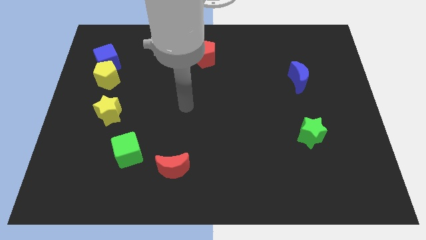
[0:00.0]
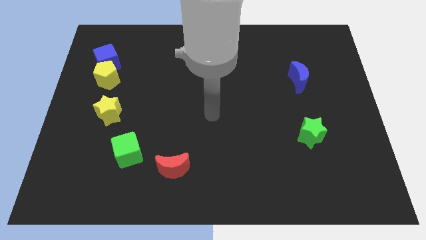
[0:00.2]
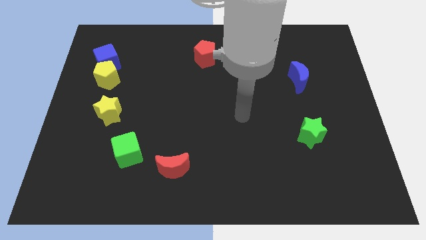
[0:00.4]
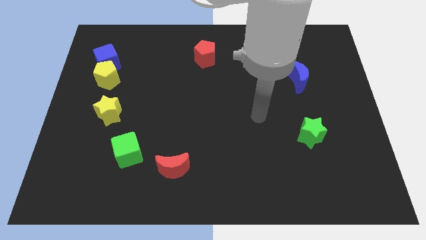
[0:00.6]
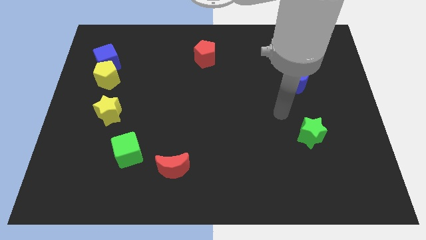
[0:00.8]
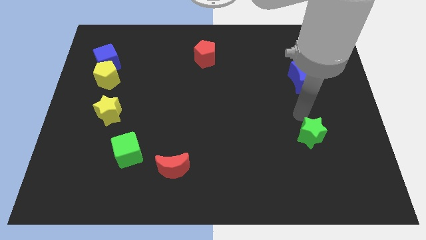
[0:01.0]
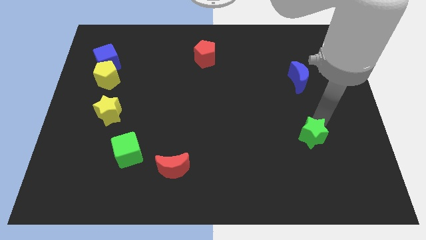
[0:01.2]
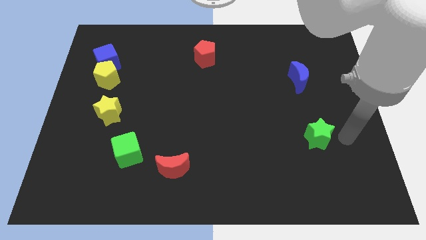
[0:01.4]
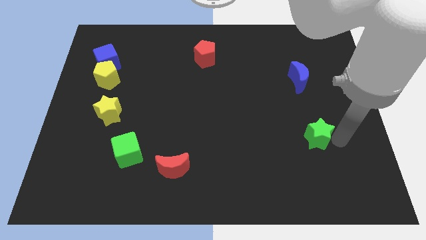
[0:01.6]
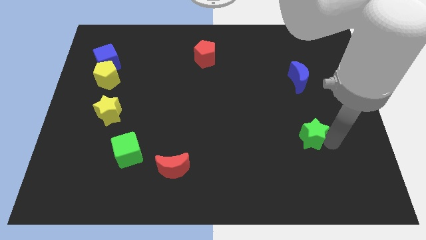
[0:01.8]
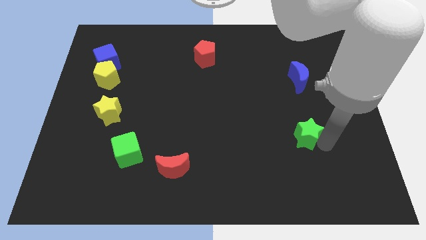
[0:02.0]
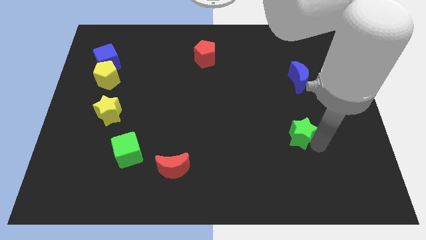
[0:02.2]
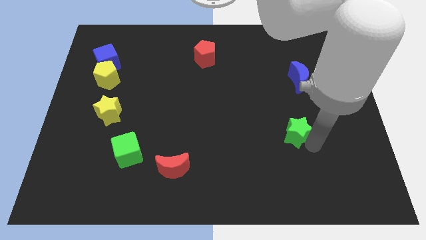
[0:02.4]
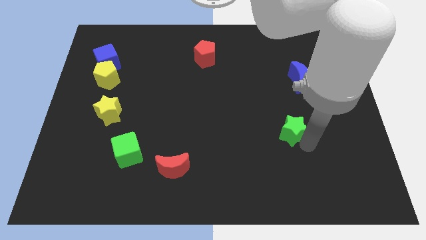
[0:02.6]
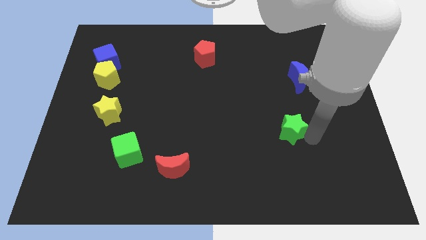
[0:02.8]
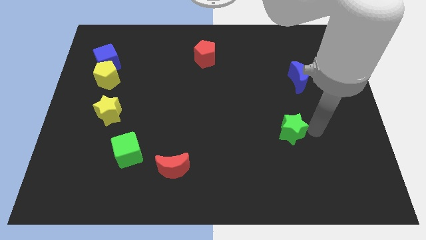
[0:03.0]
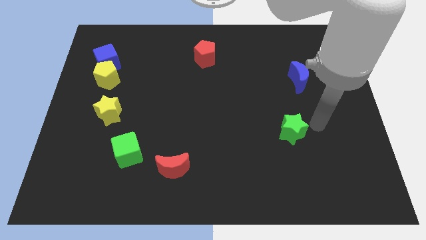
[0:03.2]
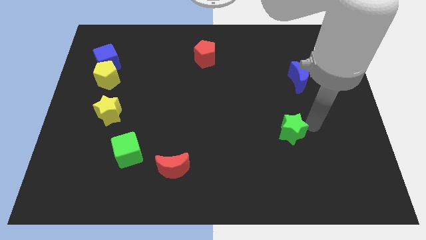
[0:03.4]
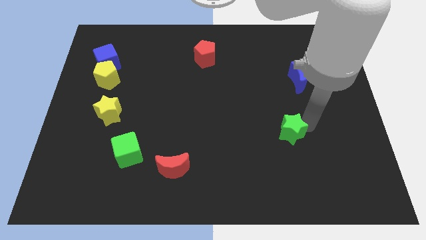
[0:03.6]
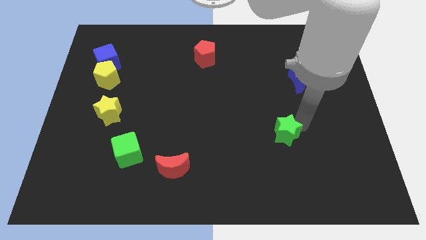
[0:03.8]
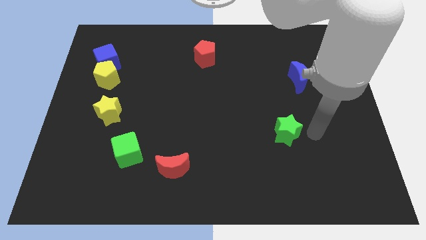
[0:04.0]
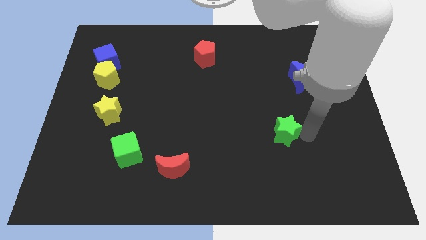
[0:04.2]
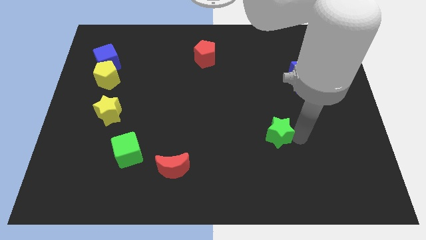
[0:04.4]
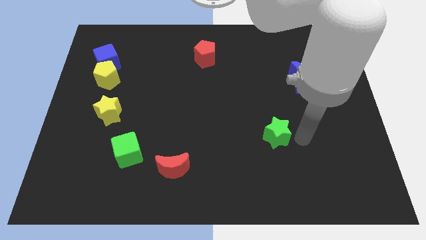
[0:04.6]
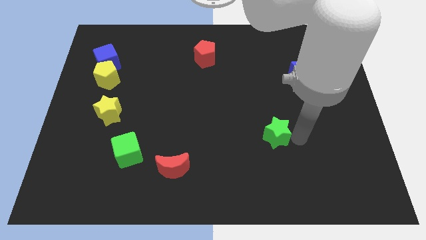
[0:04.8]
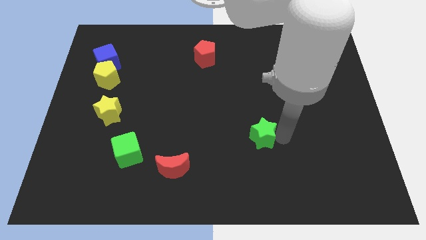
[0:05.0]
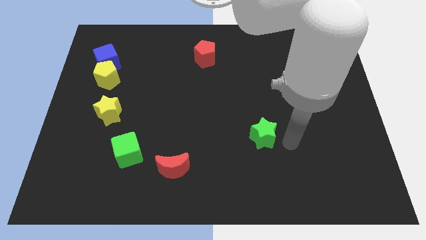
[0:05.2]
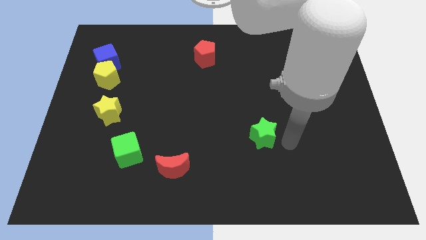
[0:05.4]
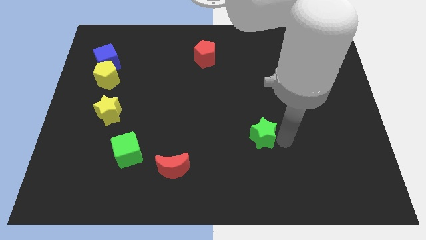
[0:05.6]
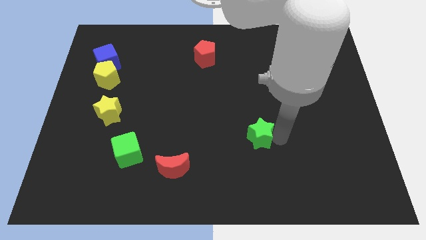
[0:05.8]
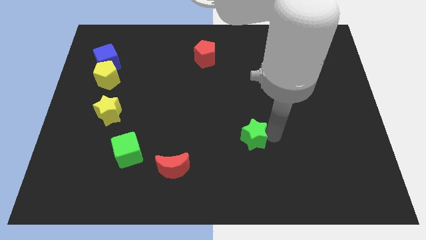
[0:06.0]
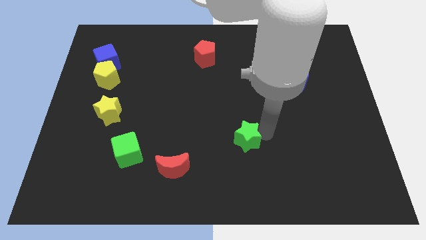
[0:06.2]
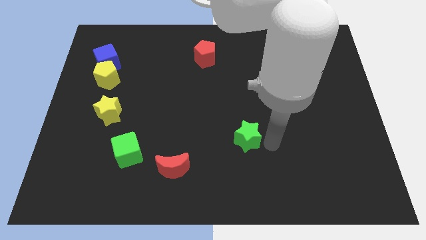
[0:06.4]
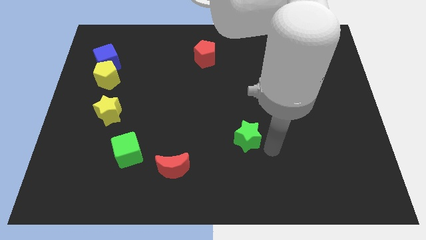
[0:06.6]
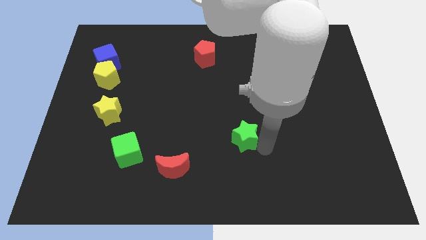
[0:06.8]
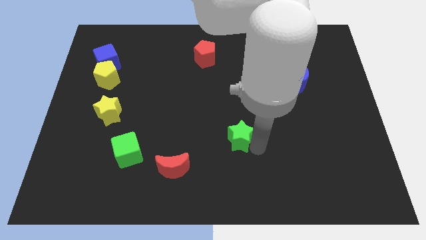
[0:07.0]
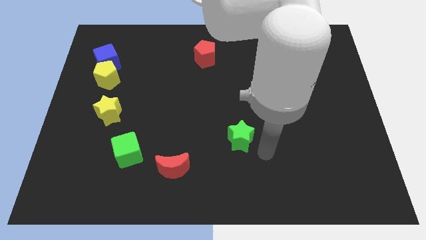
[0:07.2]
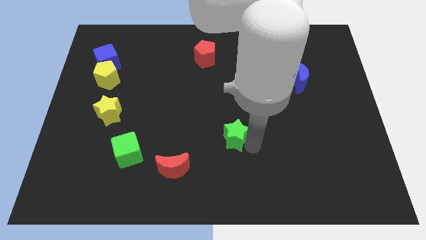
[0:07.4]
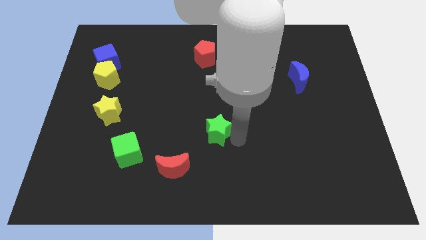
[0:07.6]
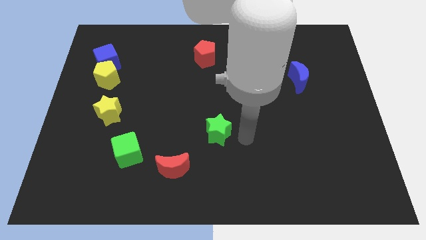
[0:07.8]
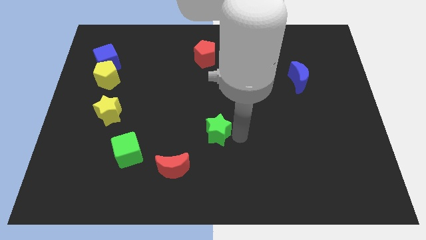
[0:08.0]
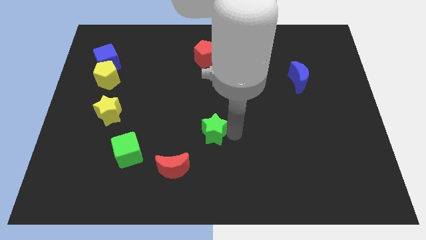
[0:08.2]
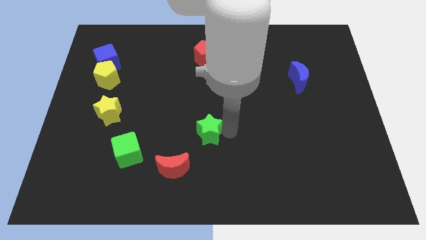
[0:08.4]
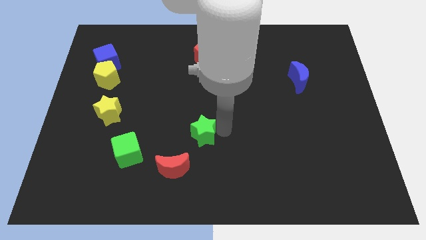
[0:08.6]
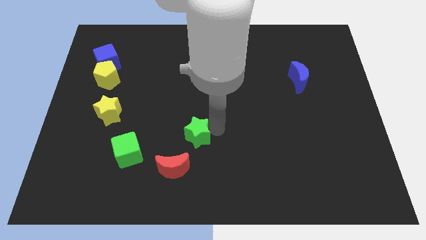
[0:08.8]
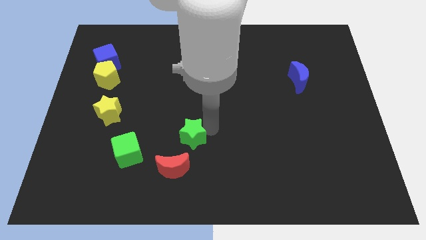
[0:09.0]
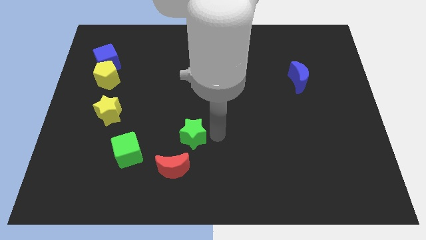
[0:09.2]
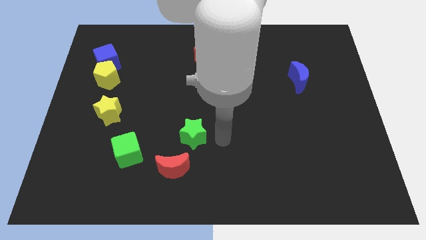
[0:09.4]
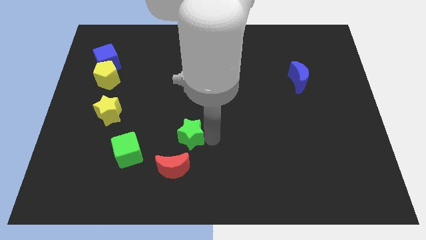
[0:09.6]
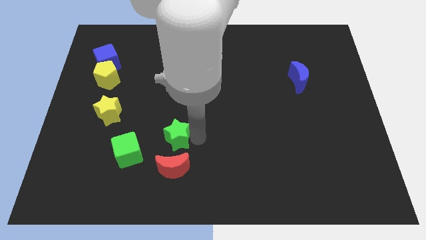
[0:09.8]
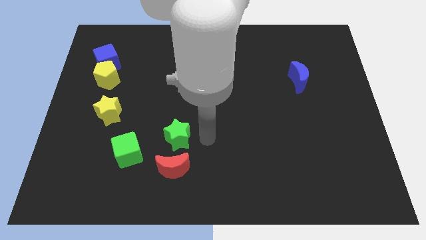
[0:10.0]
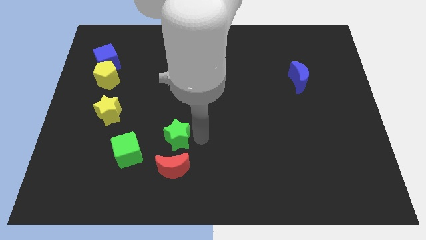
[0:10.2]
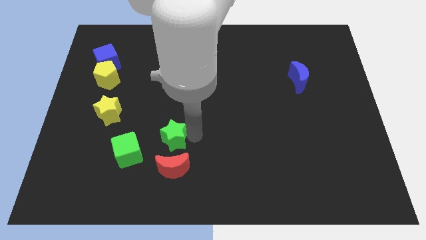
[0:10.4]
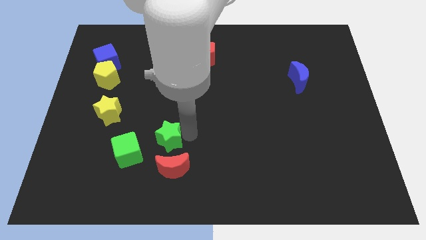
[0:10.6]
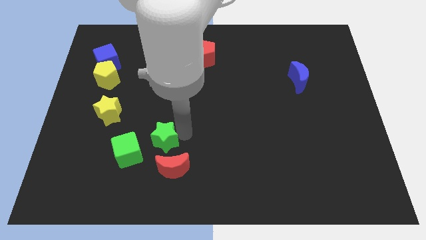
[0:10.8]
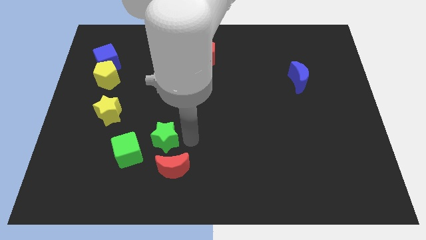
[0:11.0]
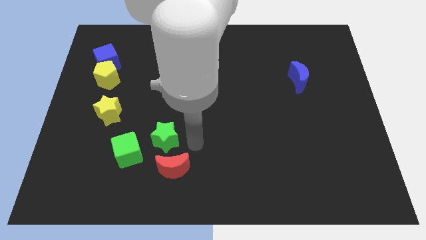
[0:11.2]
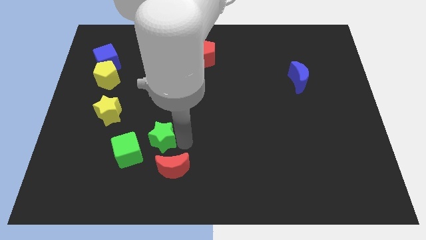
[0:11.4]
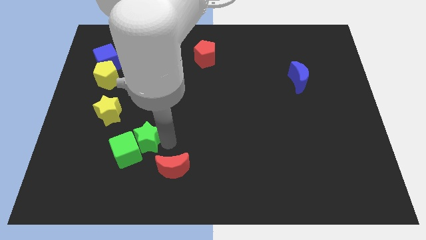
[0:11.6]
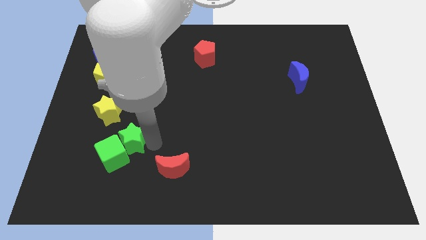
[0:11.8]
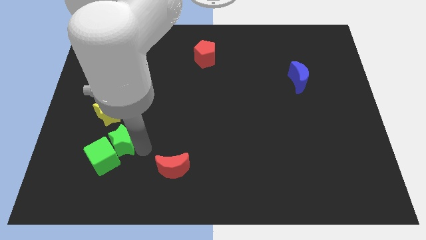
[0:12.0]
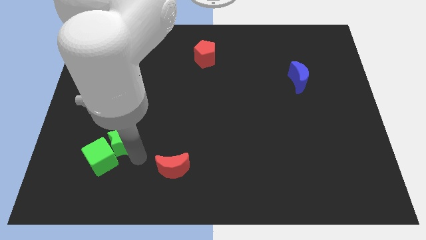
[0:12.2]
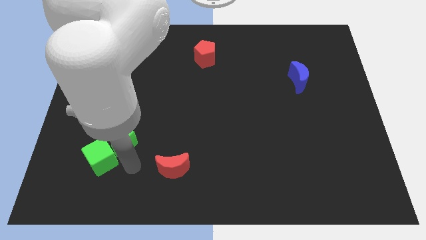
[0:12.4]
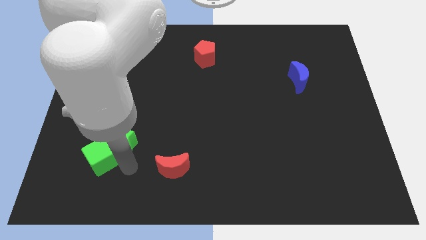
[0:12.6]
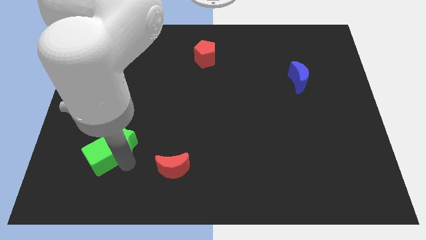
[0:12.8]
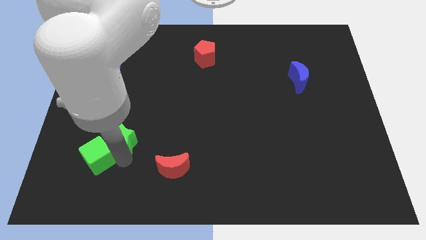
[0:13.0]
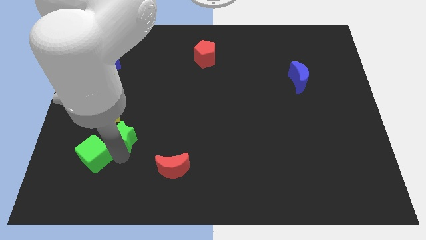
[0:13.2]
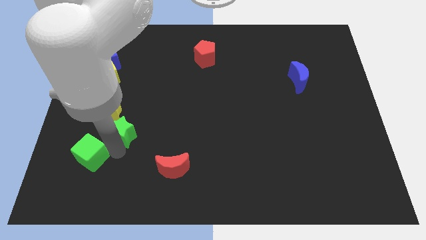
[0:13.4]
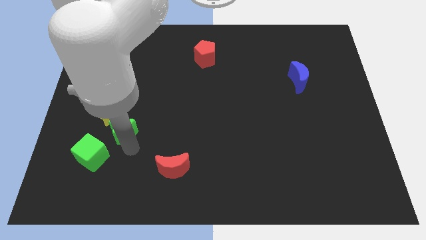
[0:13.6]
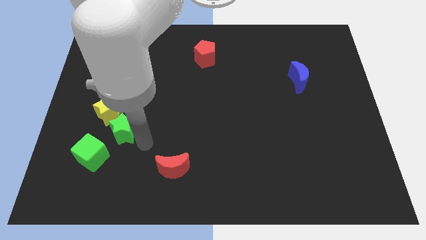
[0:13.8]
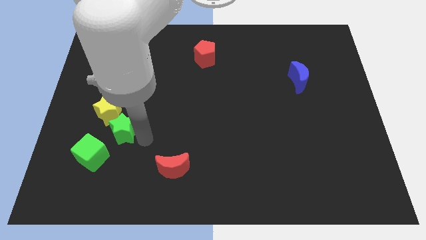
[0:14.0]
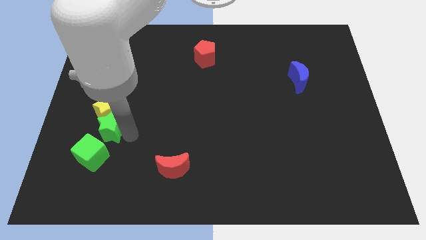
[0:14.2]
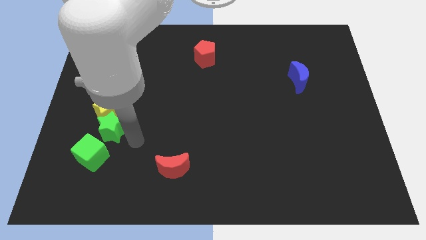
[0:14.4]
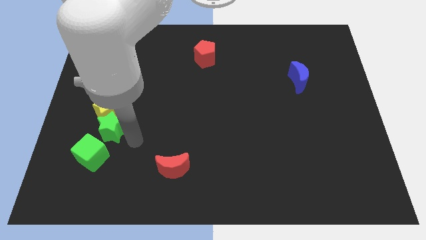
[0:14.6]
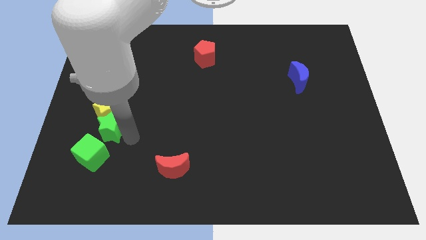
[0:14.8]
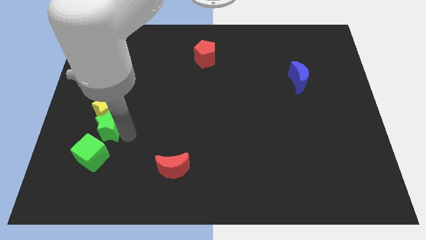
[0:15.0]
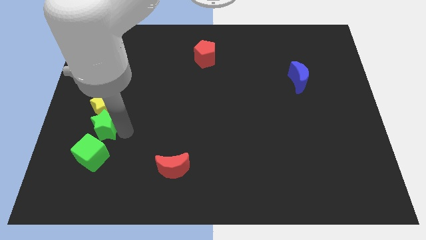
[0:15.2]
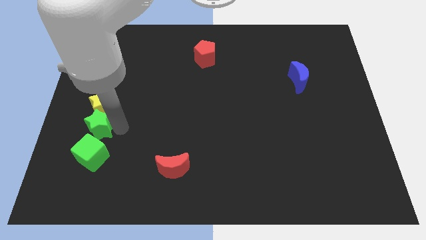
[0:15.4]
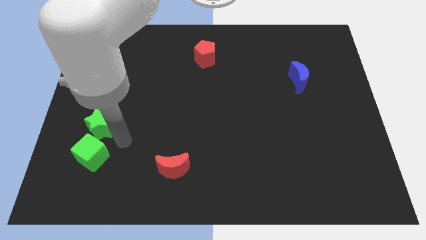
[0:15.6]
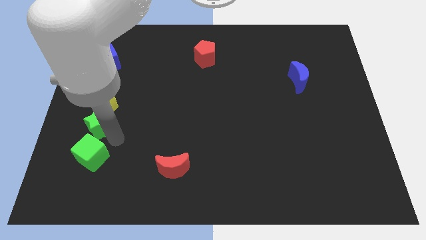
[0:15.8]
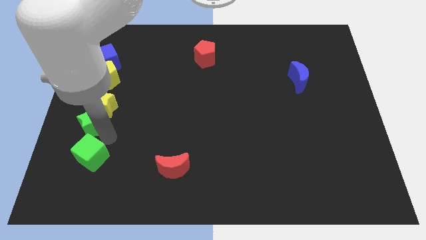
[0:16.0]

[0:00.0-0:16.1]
slide the green star to the left side
